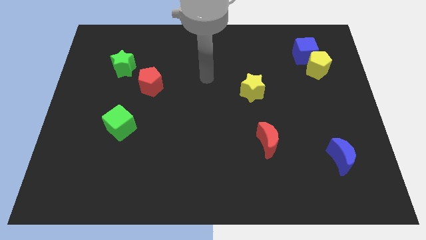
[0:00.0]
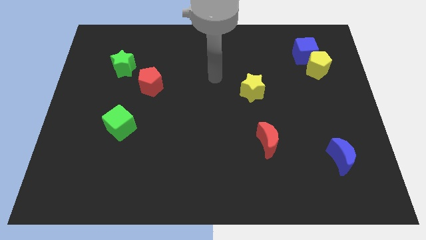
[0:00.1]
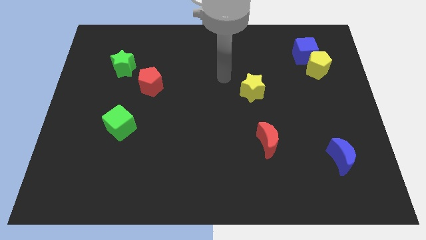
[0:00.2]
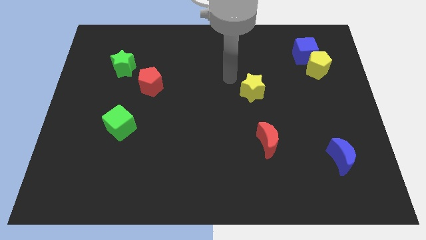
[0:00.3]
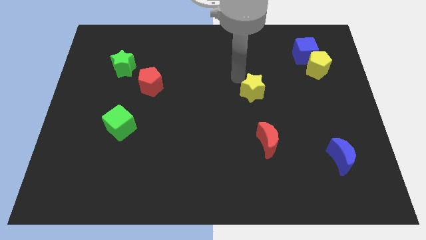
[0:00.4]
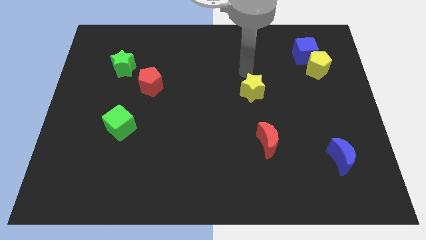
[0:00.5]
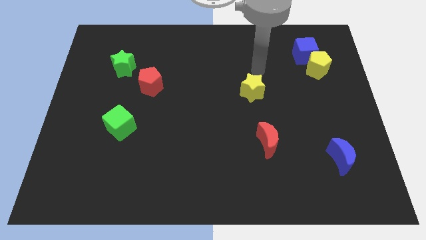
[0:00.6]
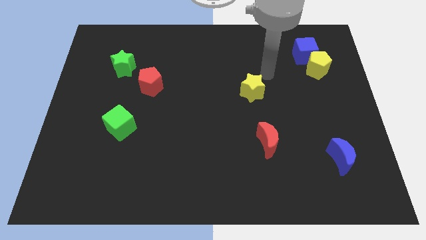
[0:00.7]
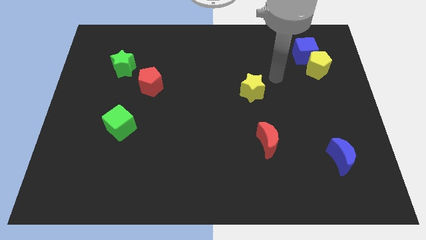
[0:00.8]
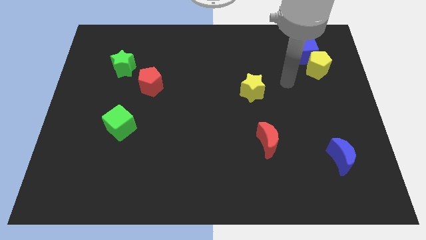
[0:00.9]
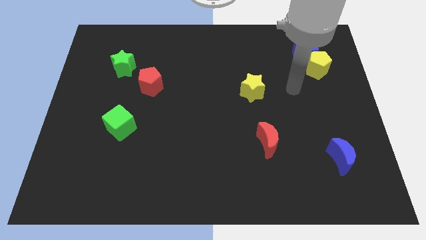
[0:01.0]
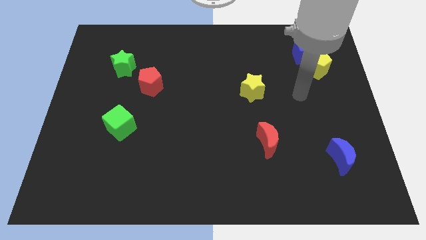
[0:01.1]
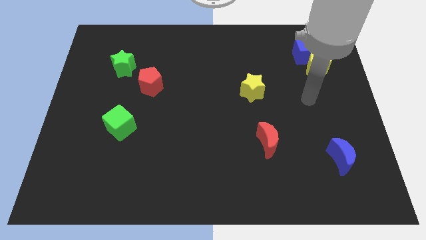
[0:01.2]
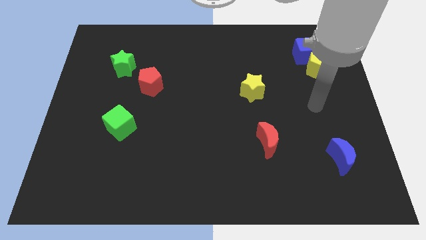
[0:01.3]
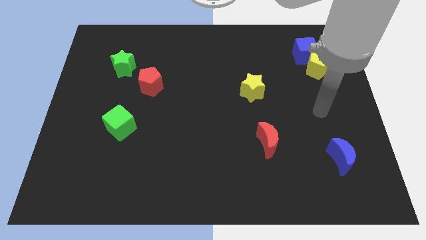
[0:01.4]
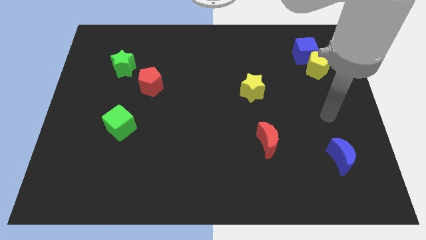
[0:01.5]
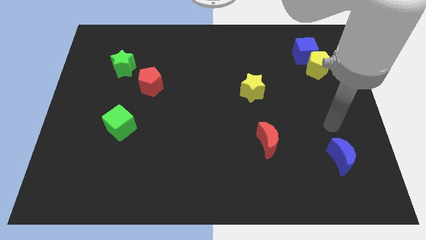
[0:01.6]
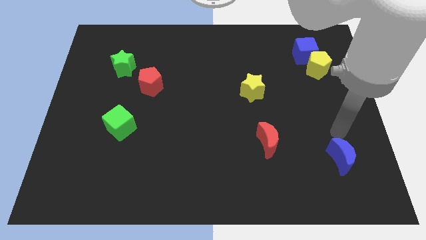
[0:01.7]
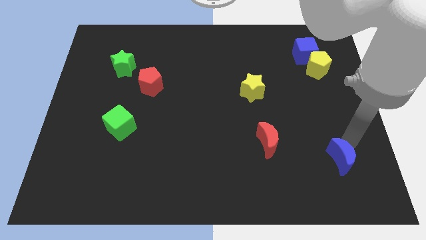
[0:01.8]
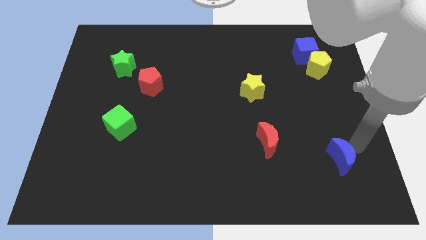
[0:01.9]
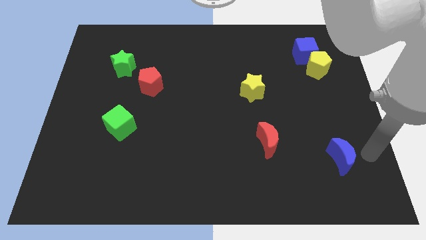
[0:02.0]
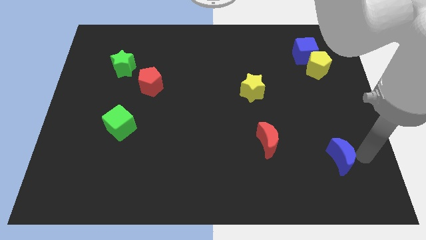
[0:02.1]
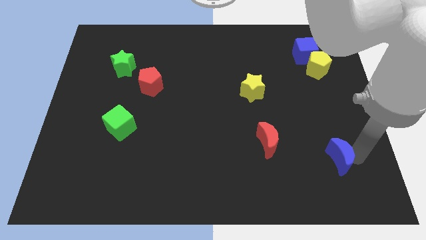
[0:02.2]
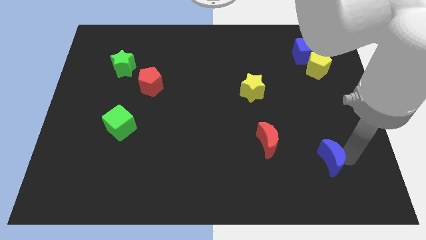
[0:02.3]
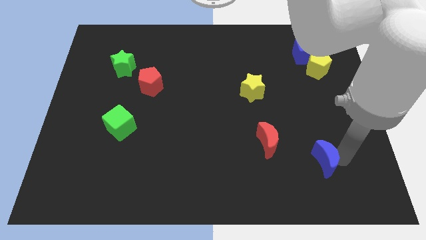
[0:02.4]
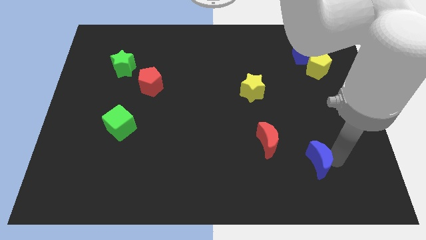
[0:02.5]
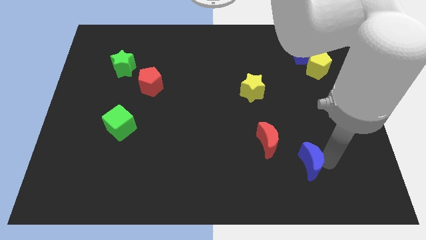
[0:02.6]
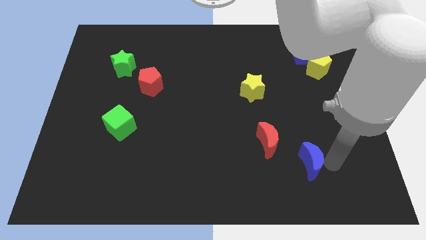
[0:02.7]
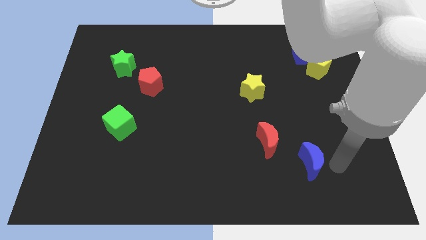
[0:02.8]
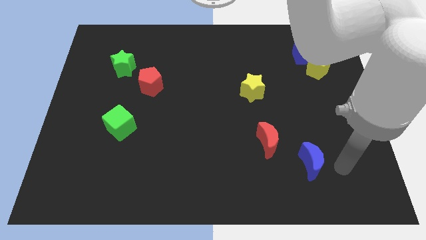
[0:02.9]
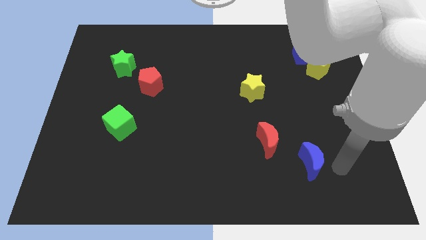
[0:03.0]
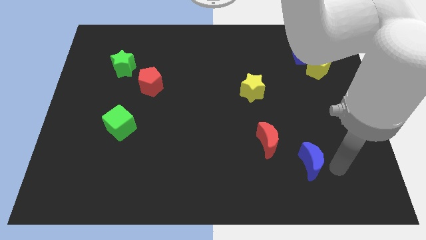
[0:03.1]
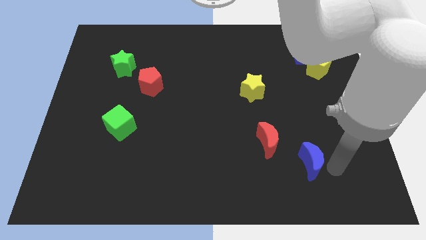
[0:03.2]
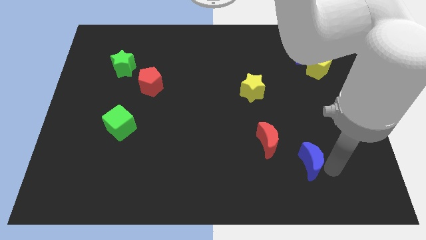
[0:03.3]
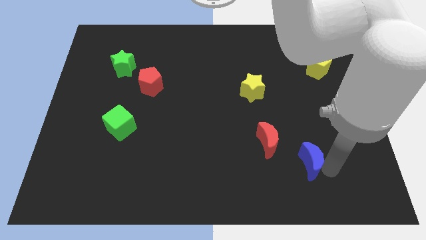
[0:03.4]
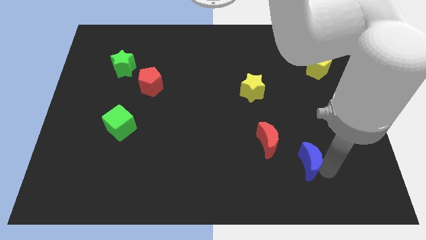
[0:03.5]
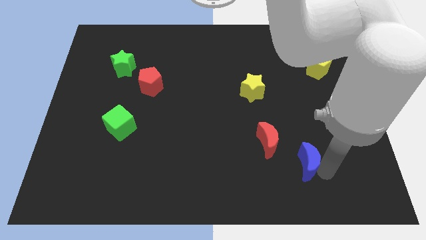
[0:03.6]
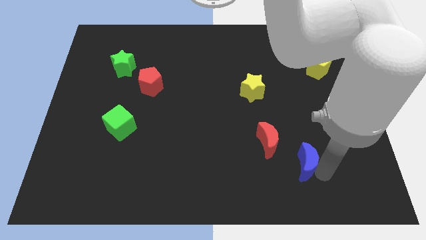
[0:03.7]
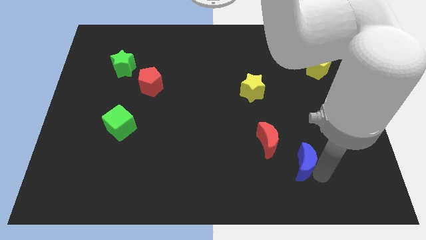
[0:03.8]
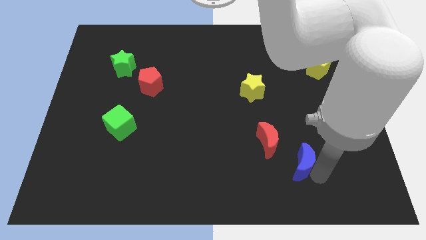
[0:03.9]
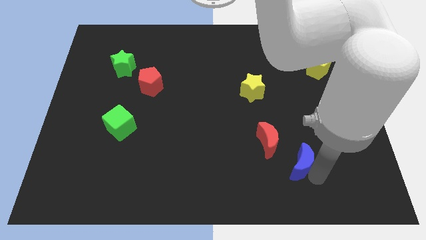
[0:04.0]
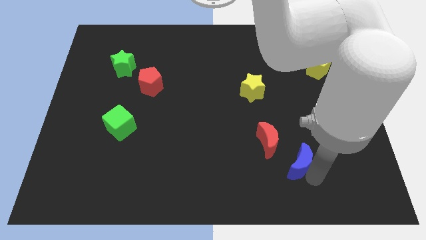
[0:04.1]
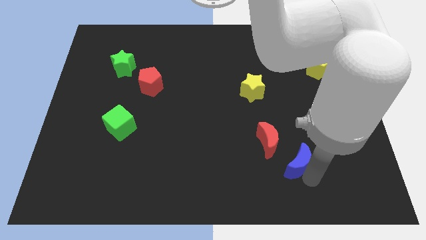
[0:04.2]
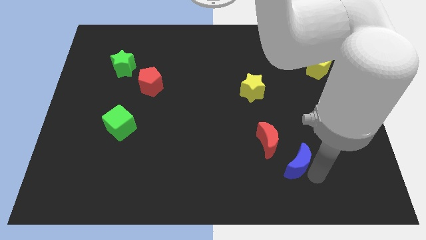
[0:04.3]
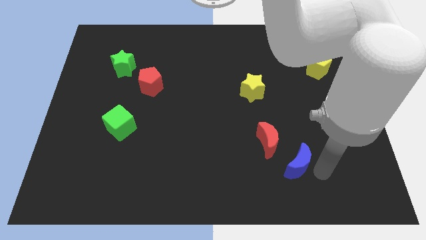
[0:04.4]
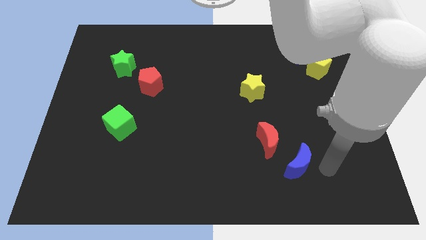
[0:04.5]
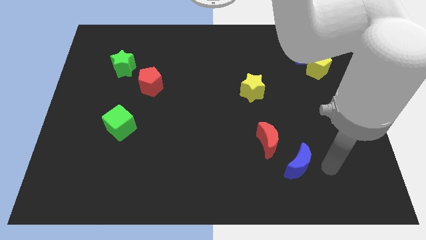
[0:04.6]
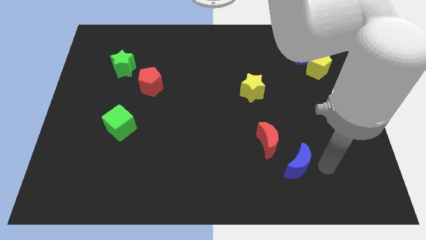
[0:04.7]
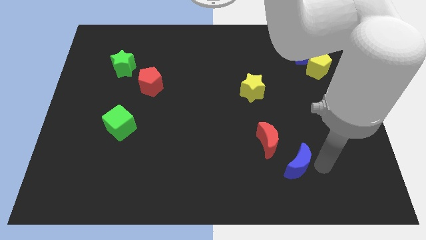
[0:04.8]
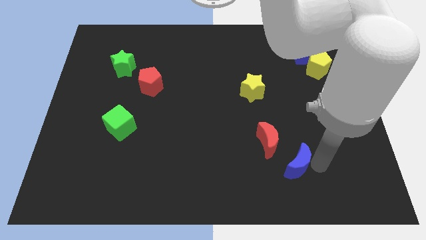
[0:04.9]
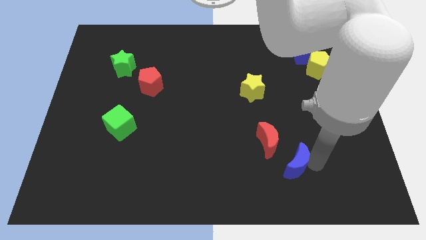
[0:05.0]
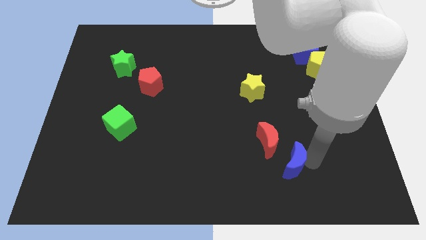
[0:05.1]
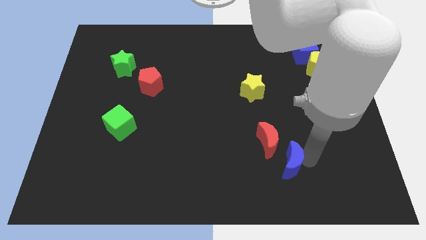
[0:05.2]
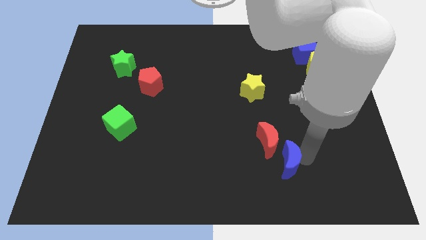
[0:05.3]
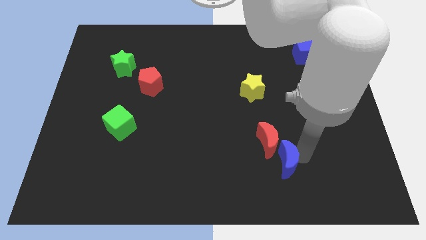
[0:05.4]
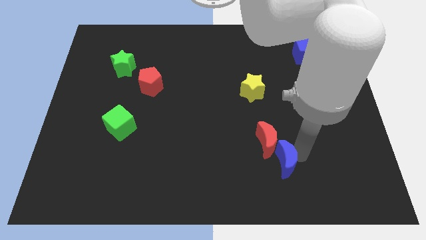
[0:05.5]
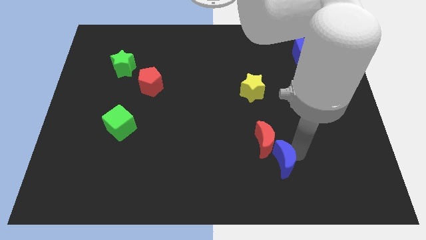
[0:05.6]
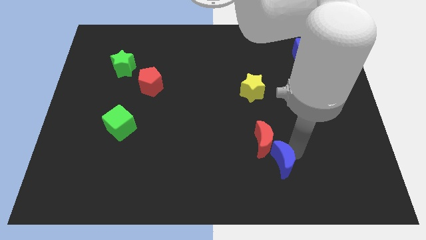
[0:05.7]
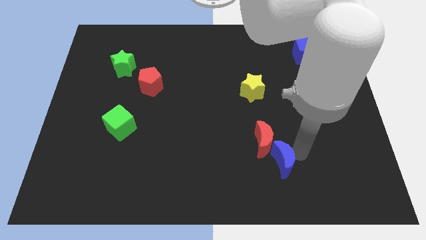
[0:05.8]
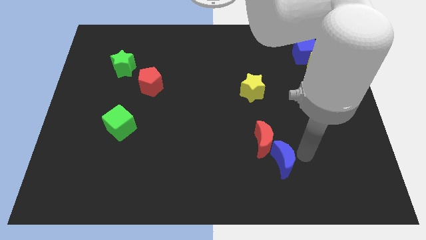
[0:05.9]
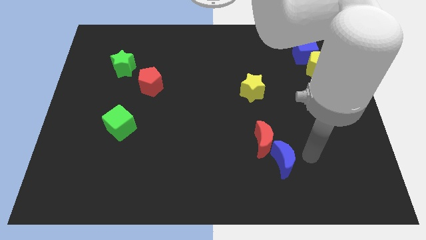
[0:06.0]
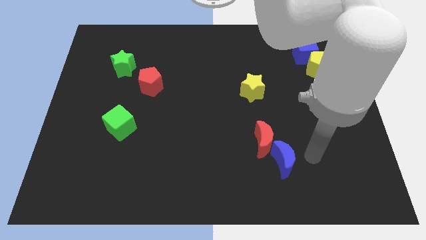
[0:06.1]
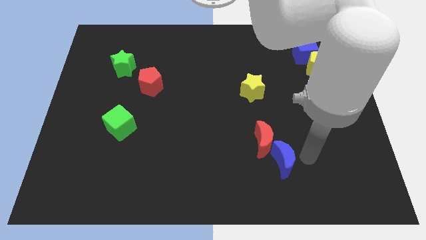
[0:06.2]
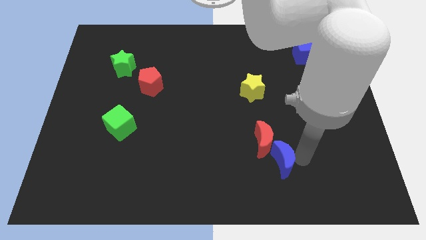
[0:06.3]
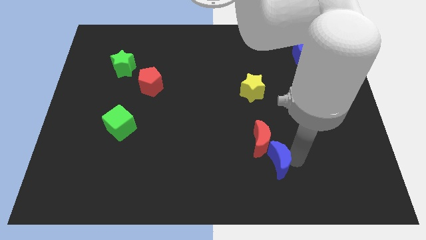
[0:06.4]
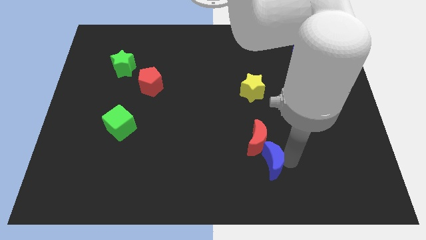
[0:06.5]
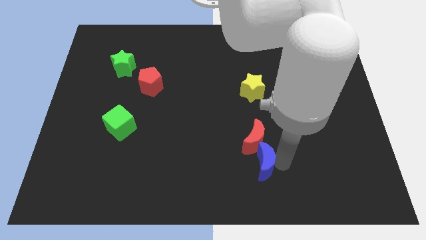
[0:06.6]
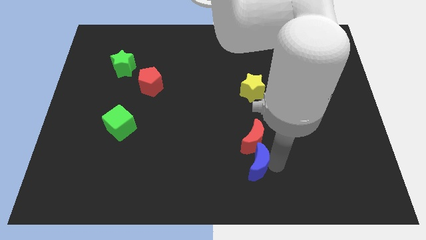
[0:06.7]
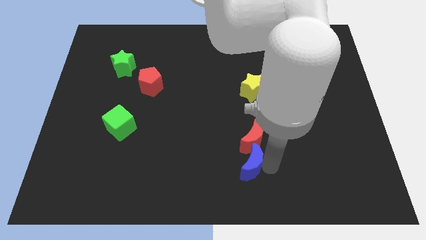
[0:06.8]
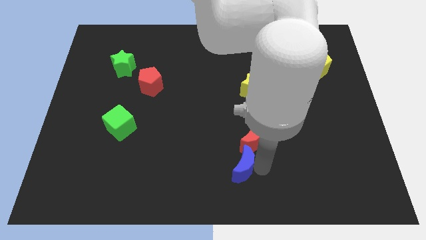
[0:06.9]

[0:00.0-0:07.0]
slide the blue moon to the left

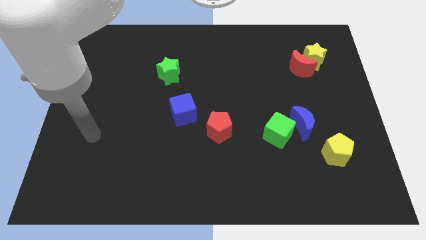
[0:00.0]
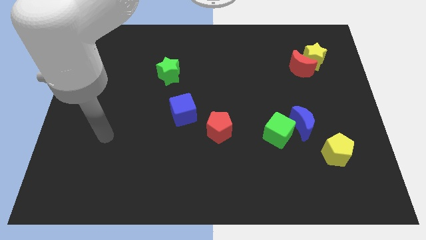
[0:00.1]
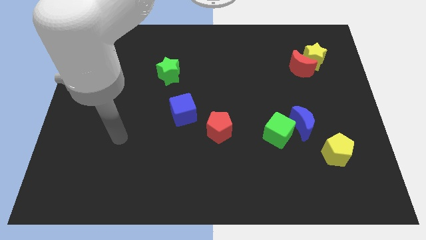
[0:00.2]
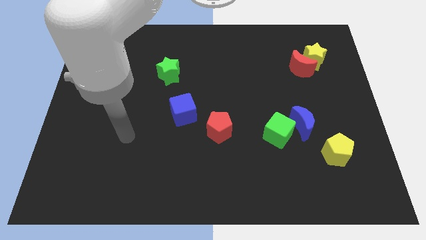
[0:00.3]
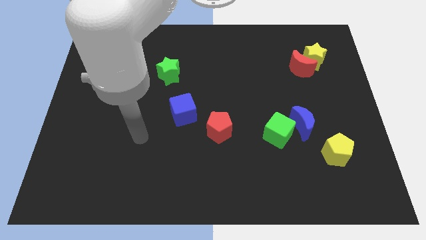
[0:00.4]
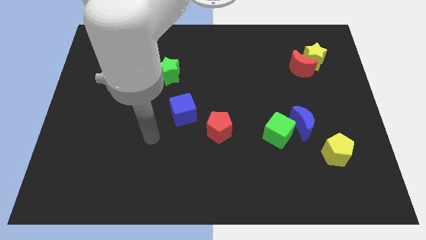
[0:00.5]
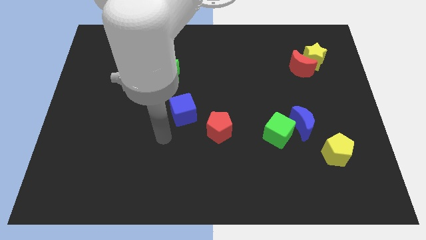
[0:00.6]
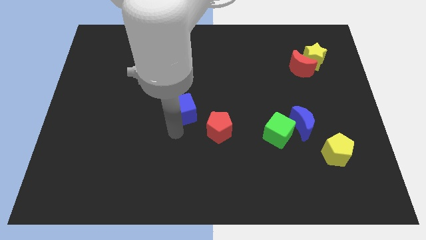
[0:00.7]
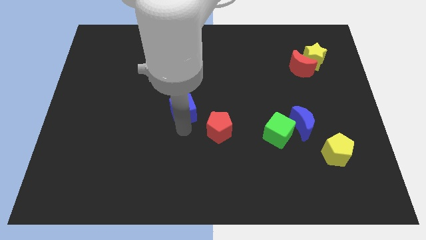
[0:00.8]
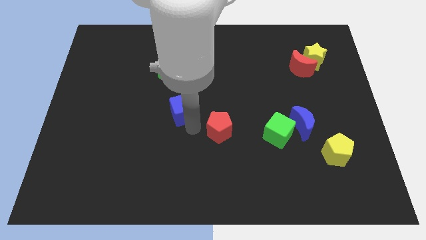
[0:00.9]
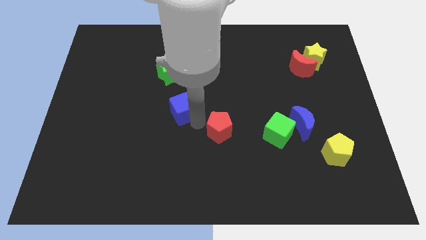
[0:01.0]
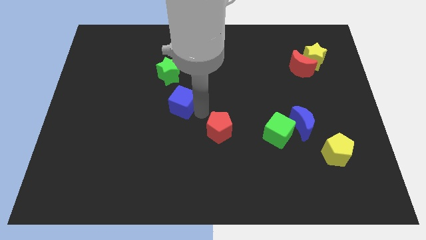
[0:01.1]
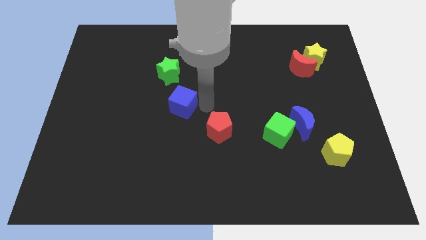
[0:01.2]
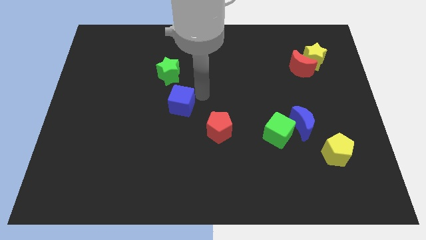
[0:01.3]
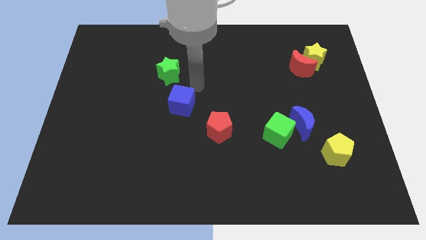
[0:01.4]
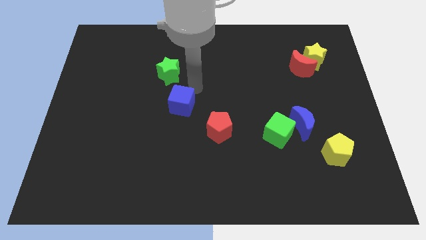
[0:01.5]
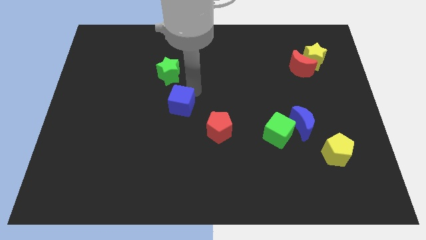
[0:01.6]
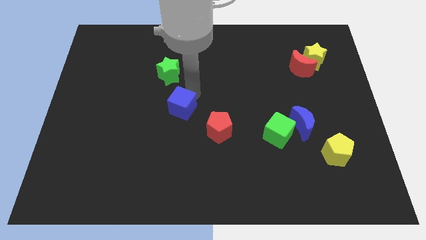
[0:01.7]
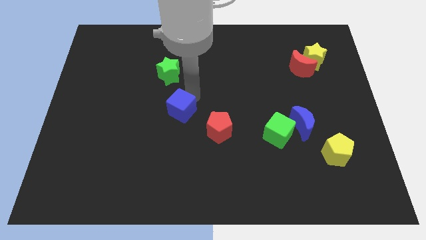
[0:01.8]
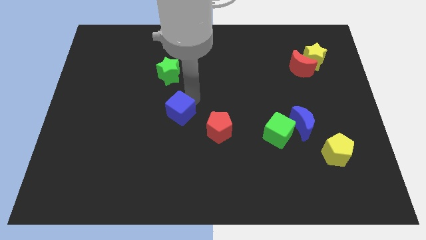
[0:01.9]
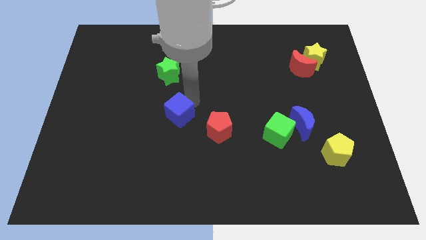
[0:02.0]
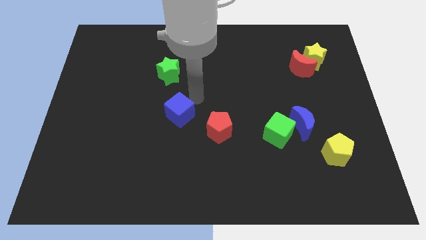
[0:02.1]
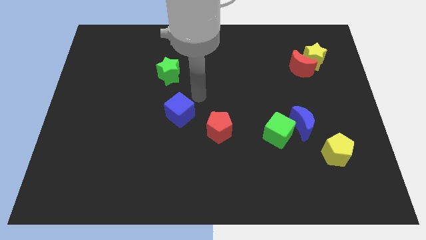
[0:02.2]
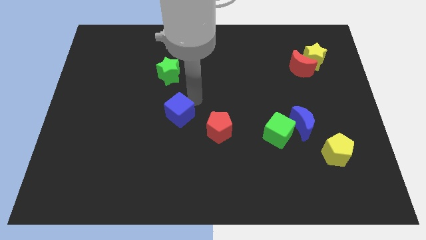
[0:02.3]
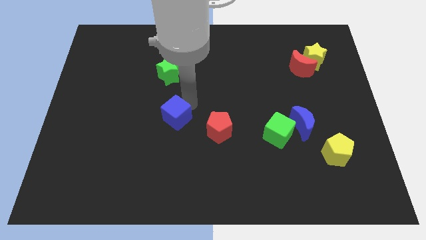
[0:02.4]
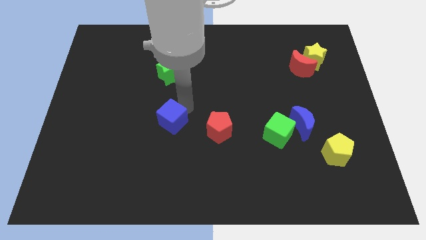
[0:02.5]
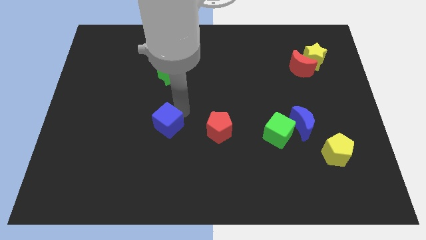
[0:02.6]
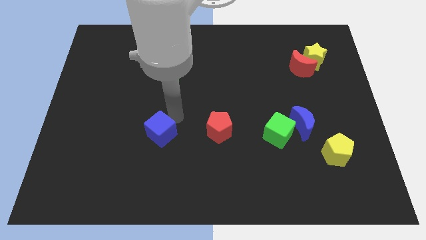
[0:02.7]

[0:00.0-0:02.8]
slide the blue cube down and left diagonally a bit
